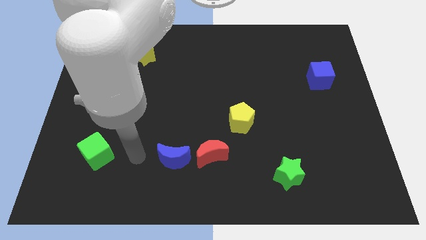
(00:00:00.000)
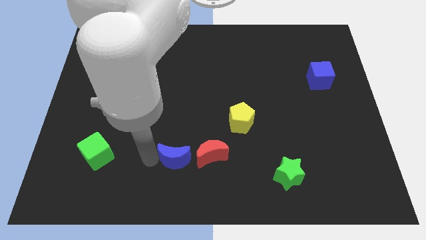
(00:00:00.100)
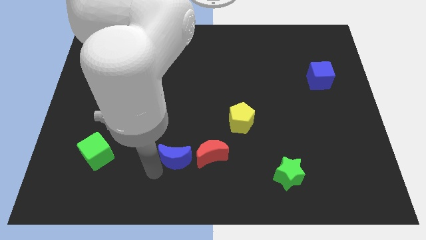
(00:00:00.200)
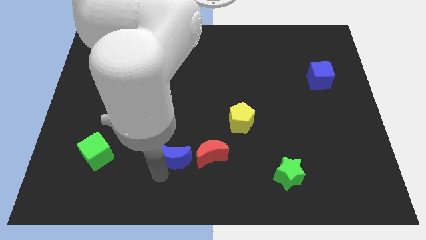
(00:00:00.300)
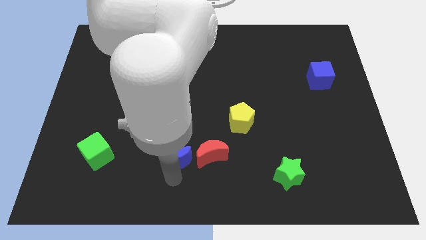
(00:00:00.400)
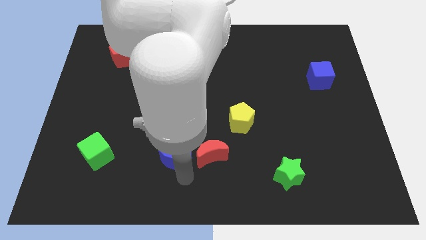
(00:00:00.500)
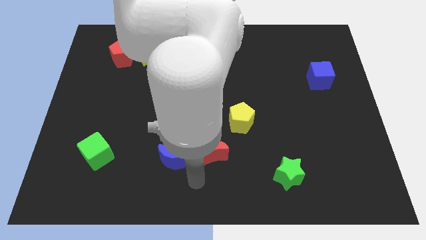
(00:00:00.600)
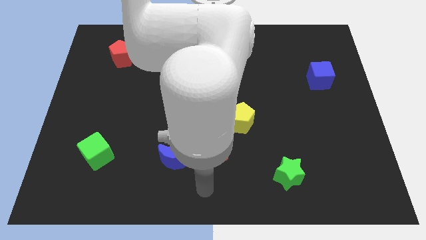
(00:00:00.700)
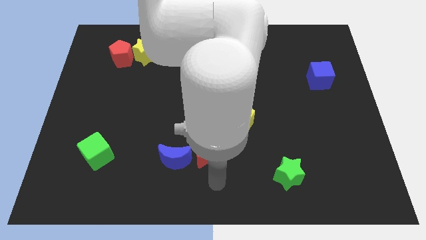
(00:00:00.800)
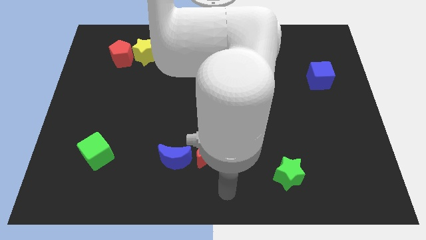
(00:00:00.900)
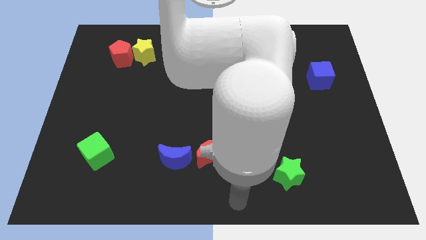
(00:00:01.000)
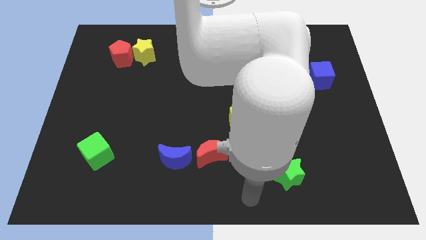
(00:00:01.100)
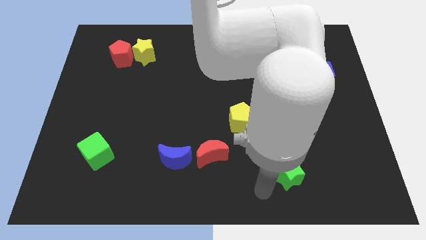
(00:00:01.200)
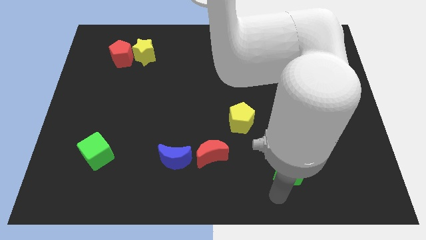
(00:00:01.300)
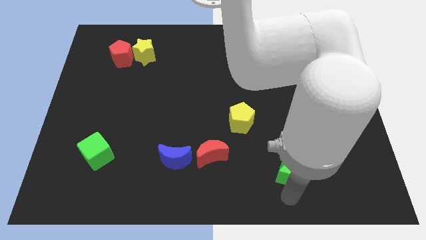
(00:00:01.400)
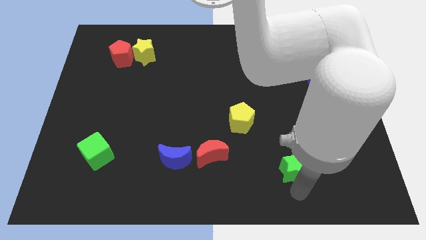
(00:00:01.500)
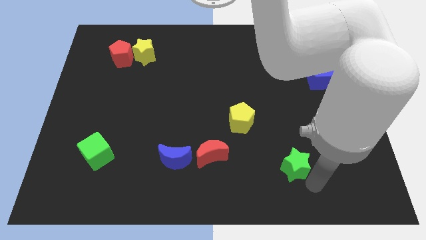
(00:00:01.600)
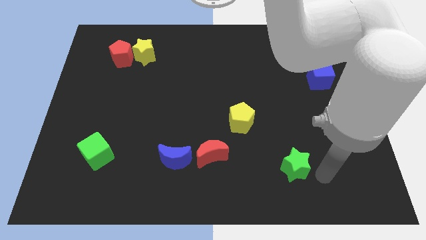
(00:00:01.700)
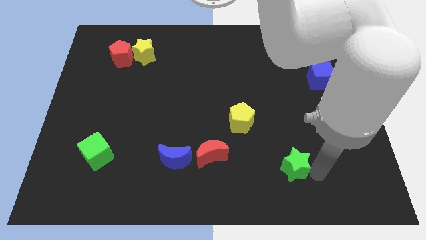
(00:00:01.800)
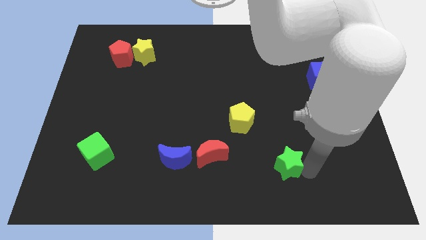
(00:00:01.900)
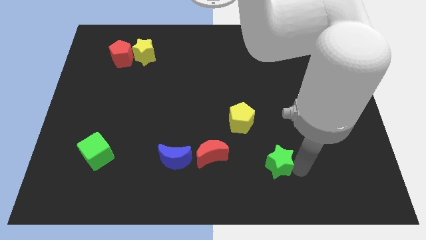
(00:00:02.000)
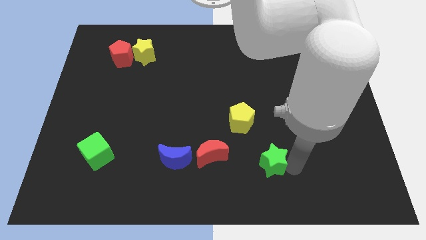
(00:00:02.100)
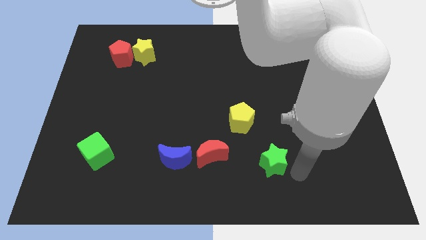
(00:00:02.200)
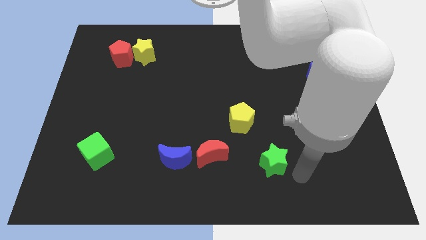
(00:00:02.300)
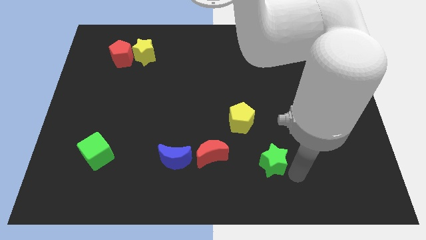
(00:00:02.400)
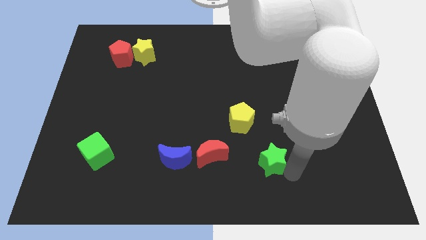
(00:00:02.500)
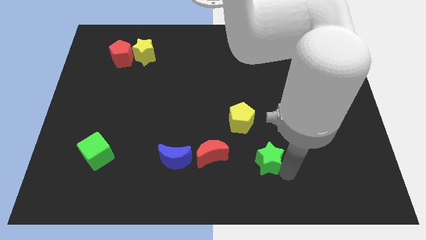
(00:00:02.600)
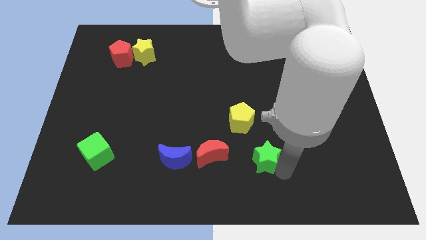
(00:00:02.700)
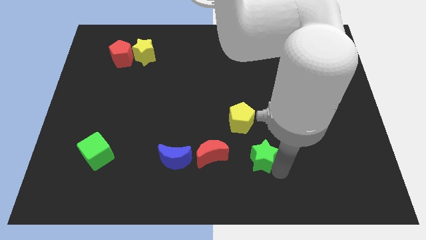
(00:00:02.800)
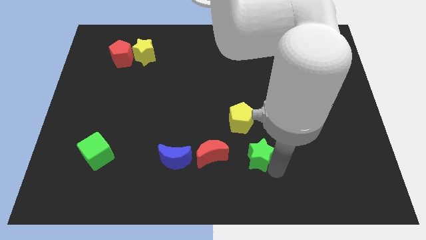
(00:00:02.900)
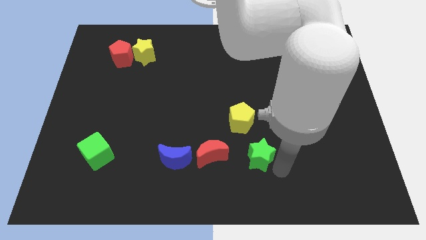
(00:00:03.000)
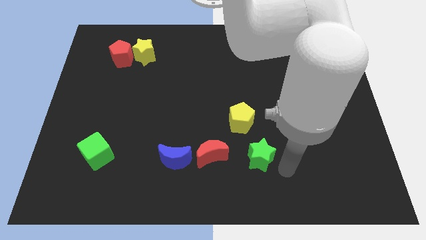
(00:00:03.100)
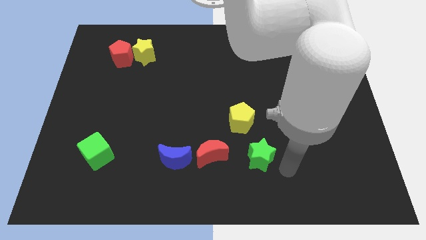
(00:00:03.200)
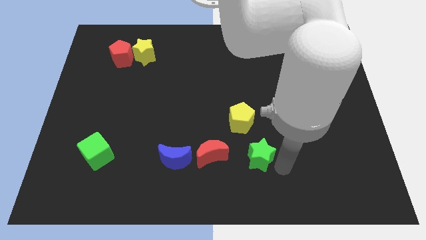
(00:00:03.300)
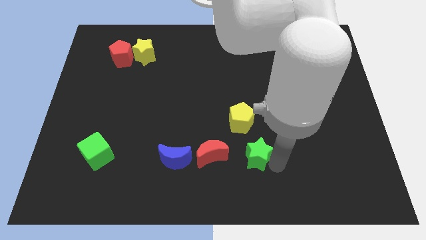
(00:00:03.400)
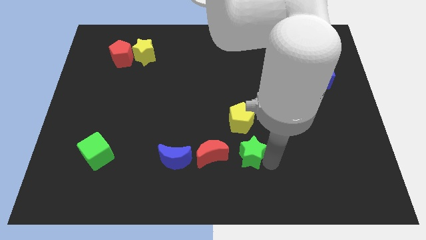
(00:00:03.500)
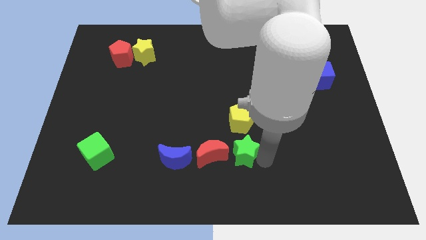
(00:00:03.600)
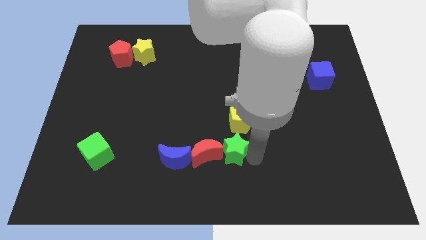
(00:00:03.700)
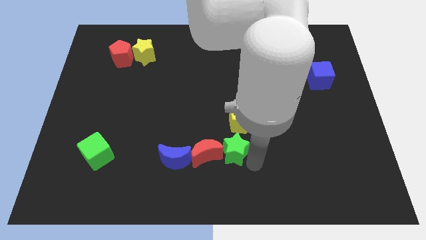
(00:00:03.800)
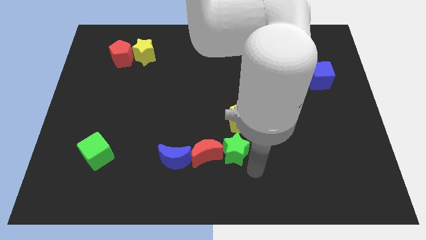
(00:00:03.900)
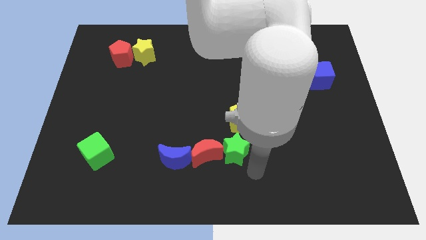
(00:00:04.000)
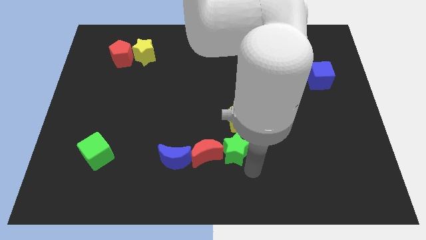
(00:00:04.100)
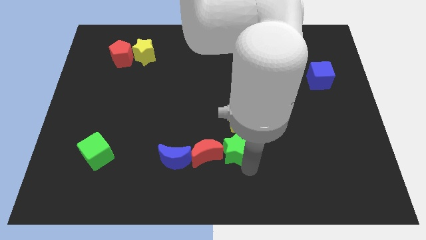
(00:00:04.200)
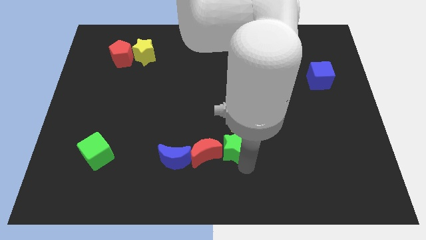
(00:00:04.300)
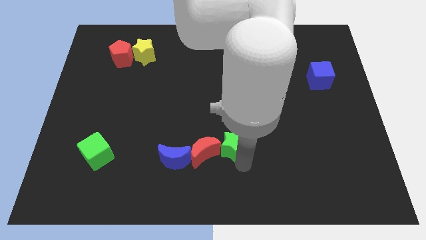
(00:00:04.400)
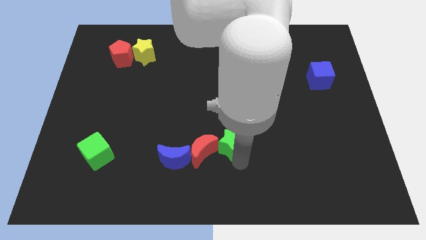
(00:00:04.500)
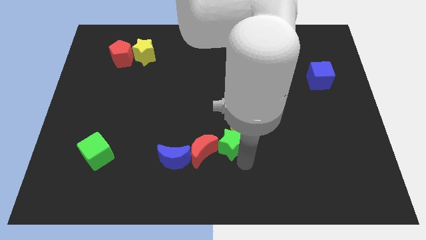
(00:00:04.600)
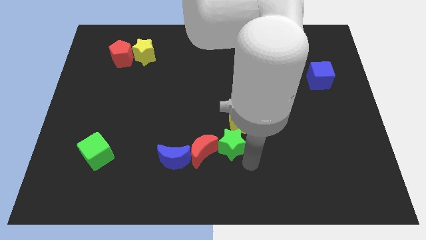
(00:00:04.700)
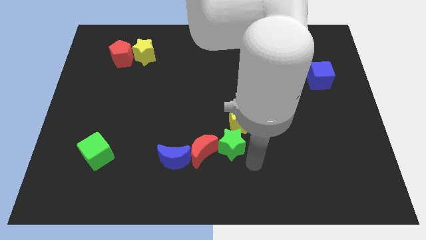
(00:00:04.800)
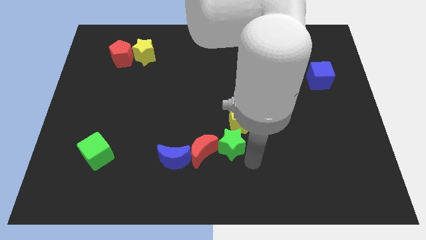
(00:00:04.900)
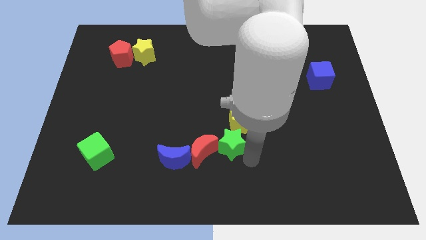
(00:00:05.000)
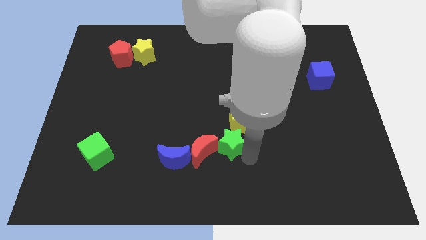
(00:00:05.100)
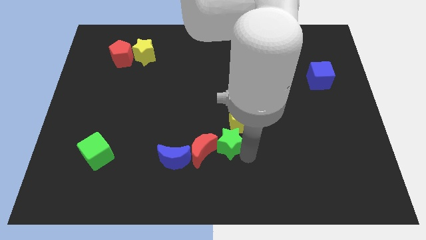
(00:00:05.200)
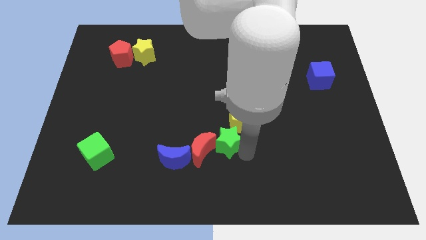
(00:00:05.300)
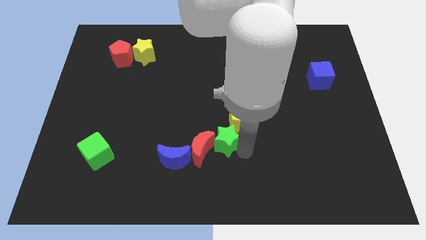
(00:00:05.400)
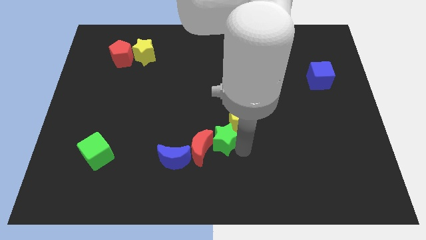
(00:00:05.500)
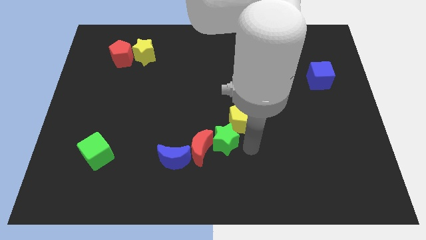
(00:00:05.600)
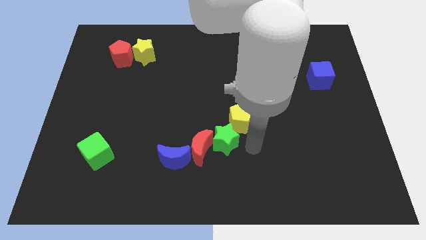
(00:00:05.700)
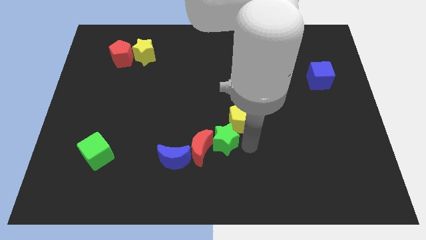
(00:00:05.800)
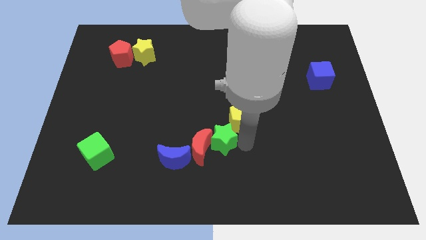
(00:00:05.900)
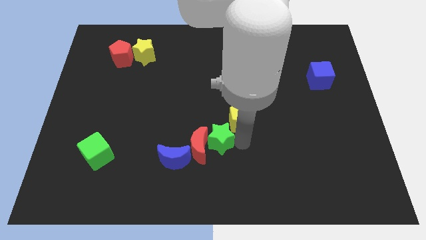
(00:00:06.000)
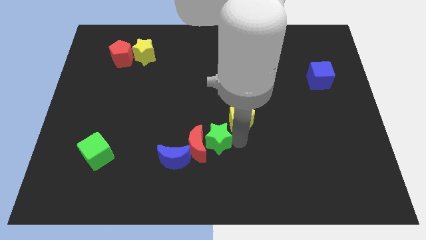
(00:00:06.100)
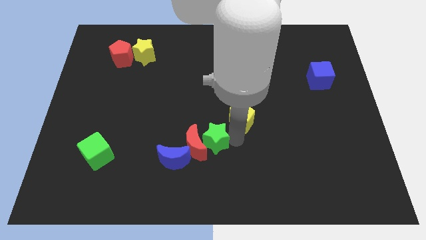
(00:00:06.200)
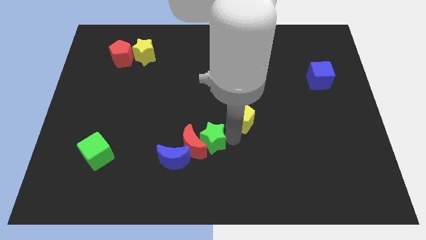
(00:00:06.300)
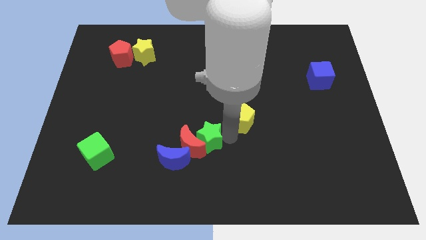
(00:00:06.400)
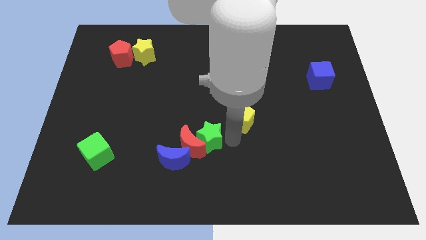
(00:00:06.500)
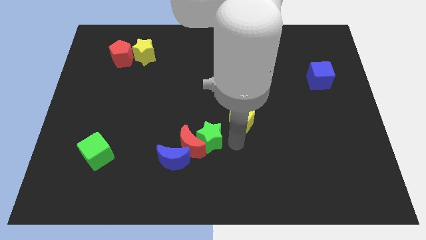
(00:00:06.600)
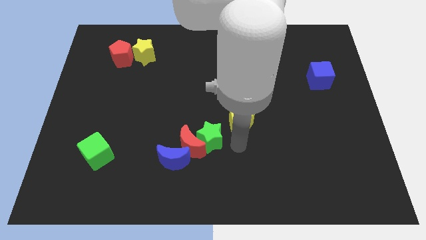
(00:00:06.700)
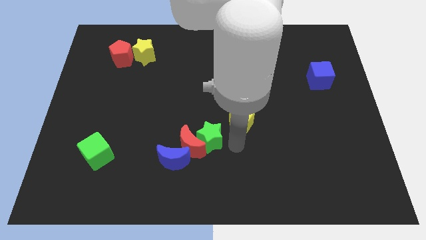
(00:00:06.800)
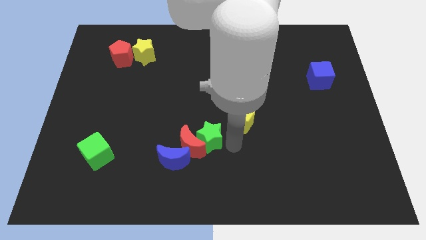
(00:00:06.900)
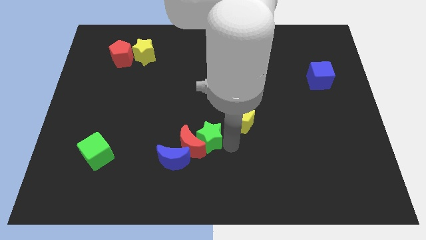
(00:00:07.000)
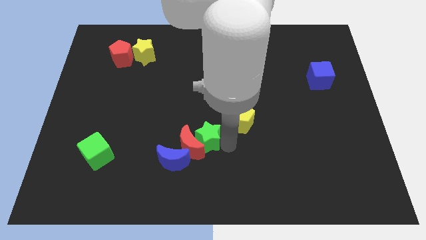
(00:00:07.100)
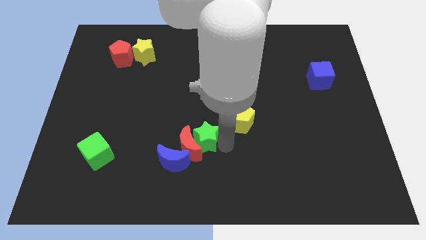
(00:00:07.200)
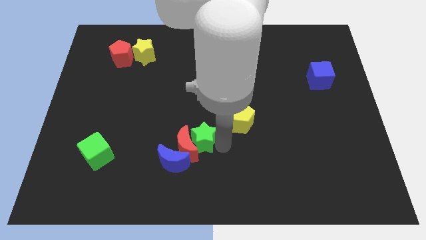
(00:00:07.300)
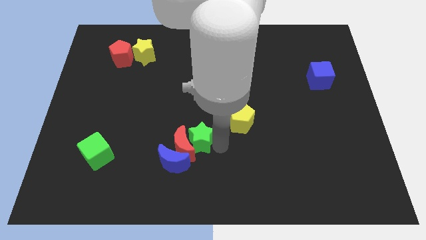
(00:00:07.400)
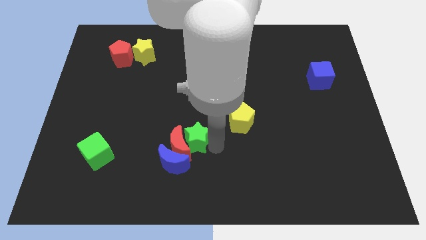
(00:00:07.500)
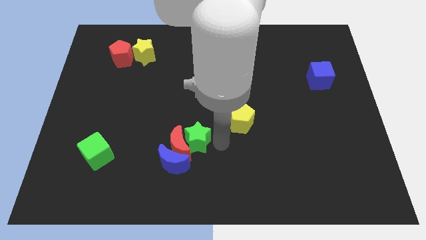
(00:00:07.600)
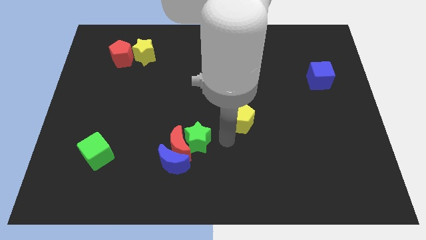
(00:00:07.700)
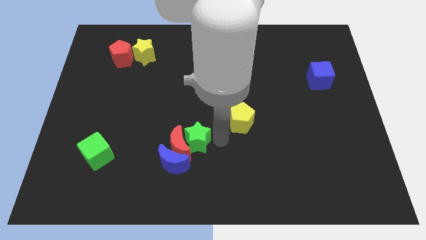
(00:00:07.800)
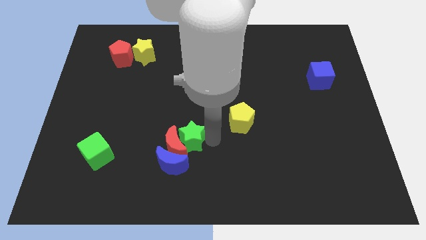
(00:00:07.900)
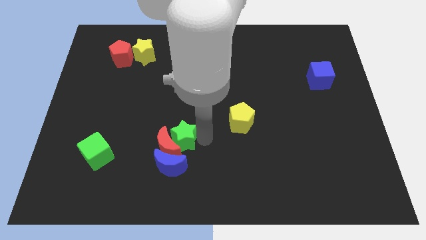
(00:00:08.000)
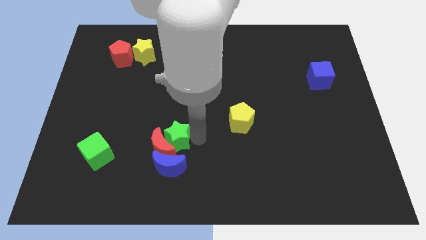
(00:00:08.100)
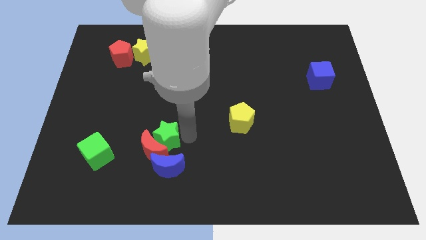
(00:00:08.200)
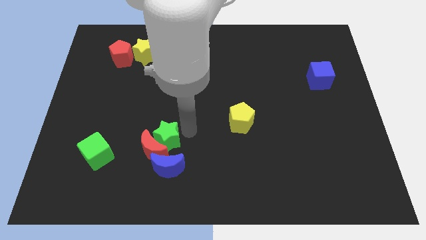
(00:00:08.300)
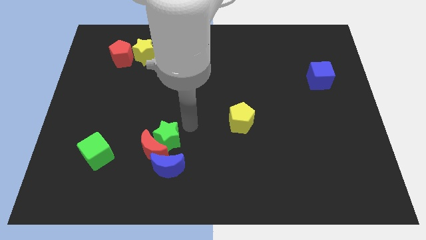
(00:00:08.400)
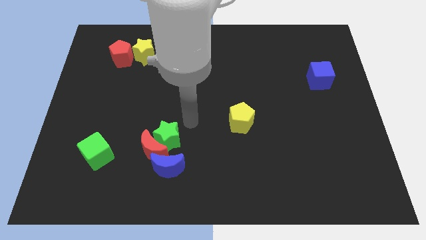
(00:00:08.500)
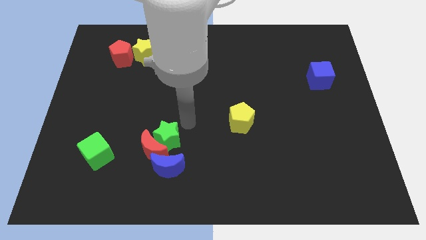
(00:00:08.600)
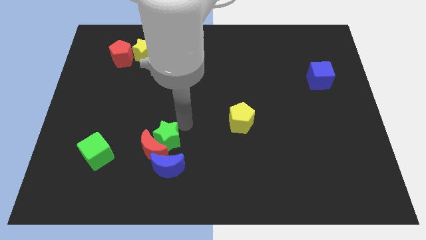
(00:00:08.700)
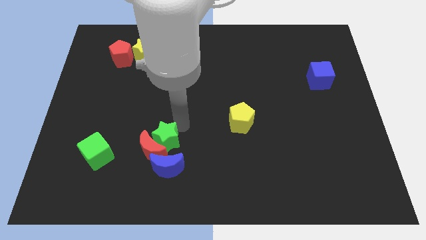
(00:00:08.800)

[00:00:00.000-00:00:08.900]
move the green star just right of the green cube
